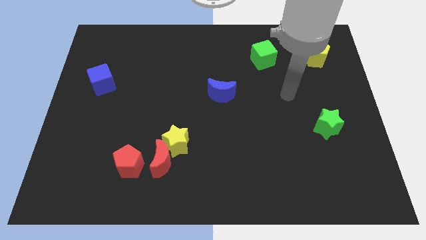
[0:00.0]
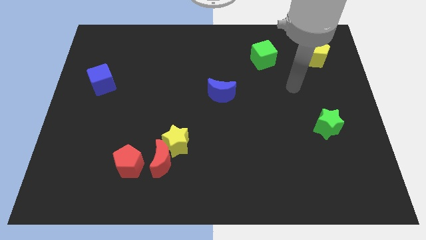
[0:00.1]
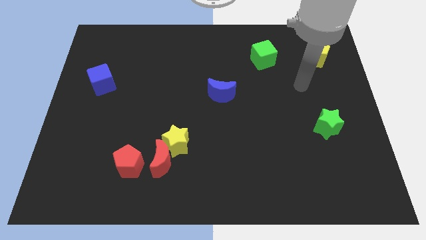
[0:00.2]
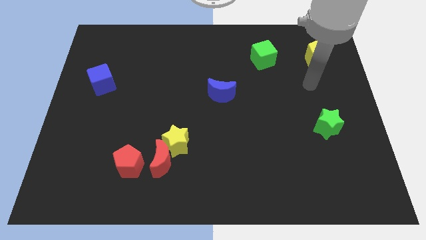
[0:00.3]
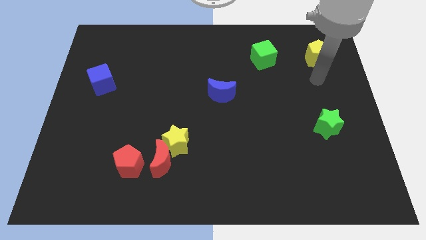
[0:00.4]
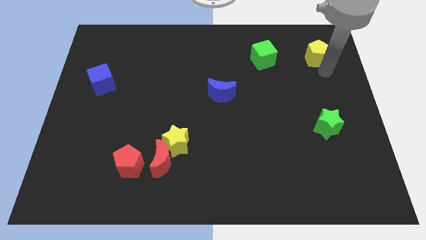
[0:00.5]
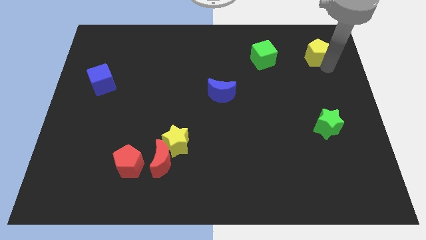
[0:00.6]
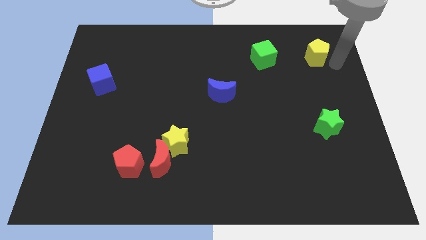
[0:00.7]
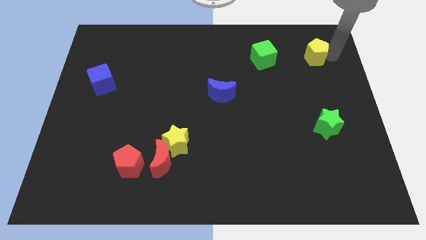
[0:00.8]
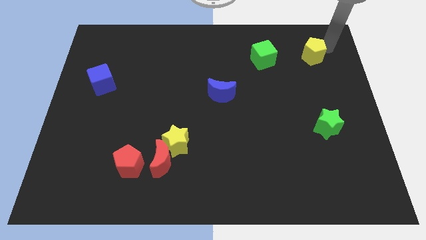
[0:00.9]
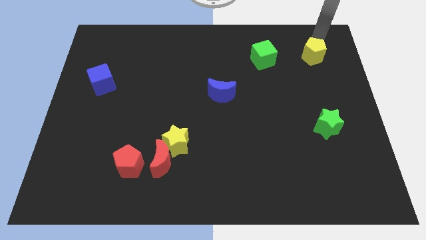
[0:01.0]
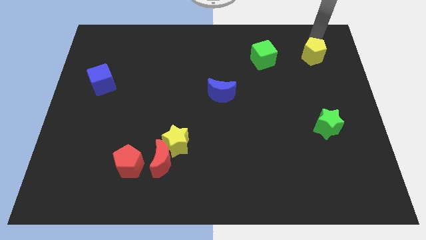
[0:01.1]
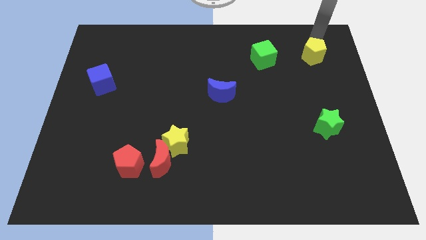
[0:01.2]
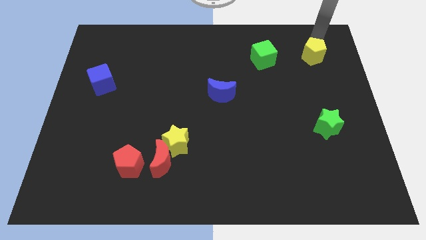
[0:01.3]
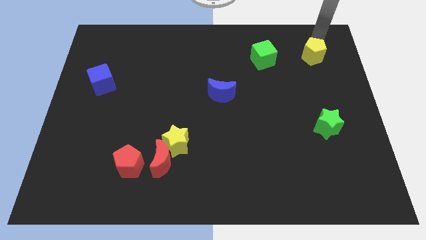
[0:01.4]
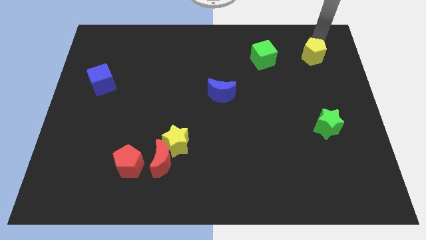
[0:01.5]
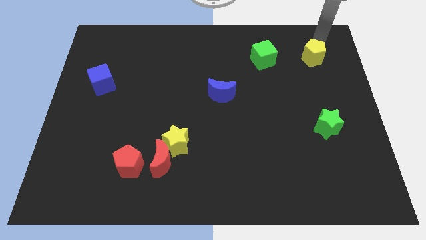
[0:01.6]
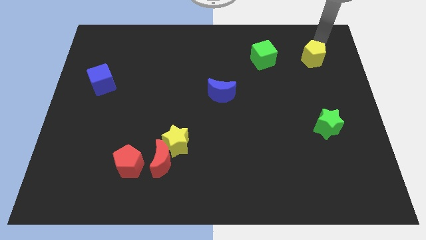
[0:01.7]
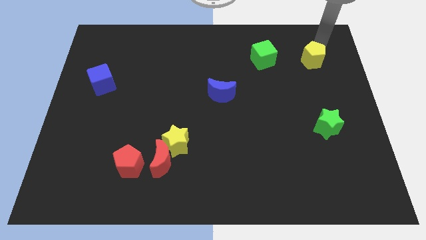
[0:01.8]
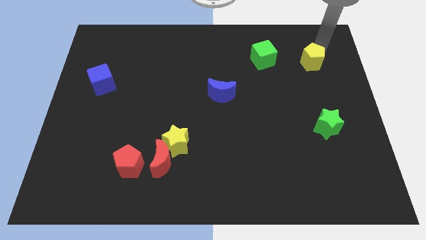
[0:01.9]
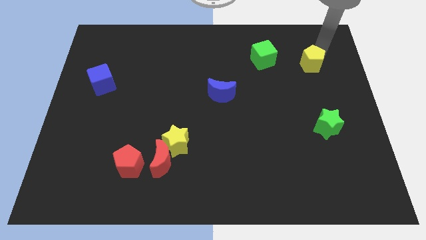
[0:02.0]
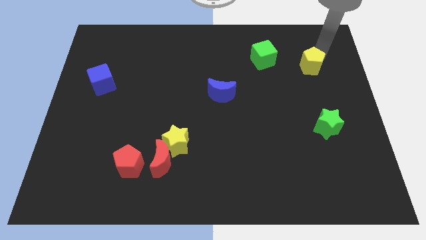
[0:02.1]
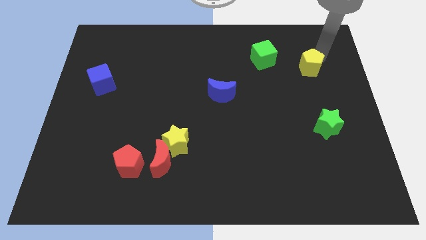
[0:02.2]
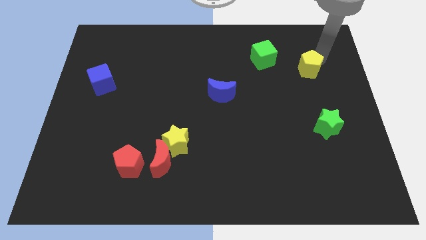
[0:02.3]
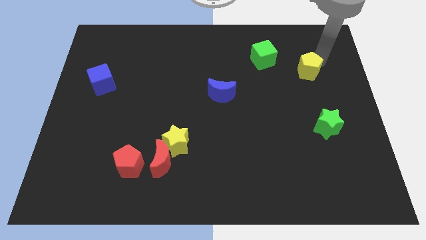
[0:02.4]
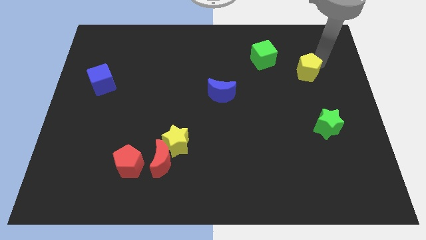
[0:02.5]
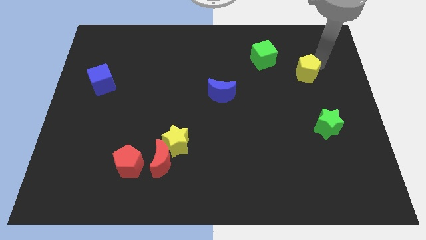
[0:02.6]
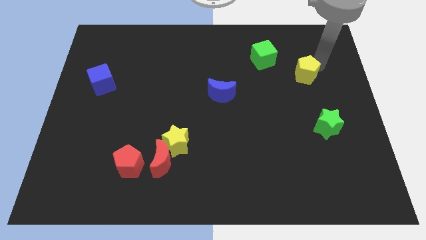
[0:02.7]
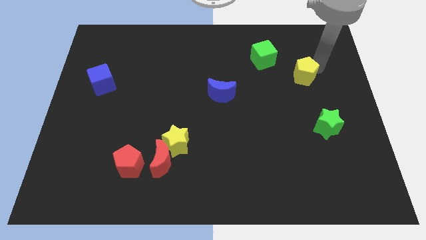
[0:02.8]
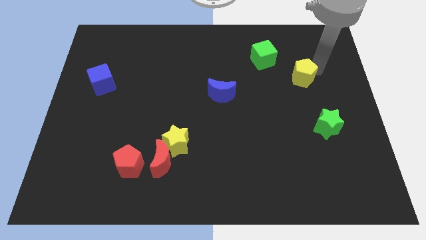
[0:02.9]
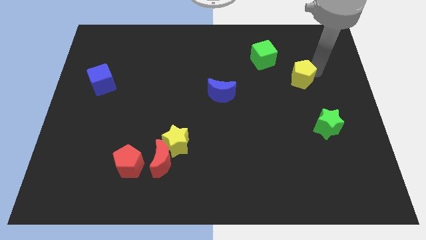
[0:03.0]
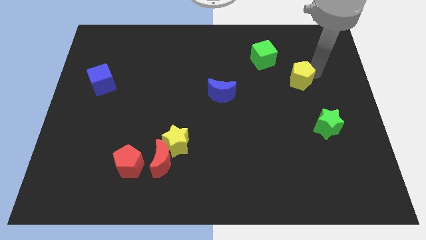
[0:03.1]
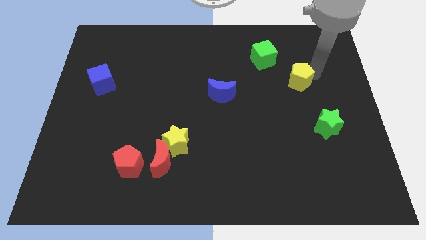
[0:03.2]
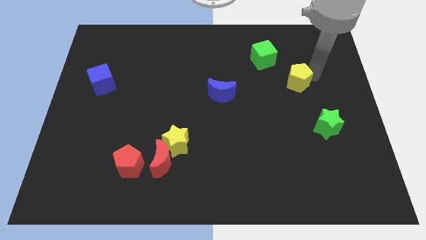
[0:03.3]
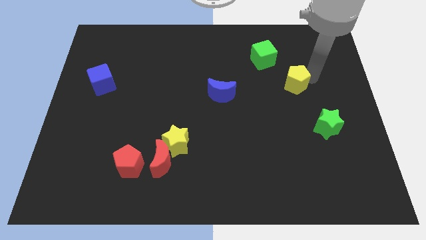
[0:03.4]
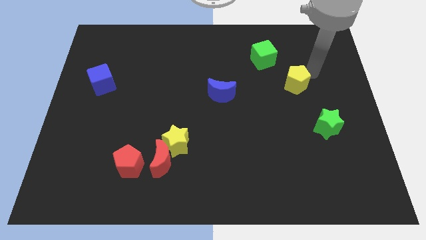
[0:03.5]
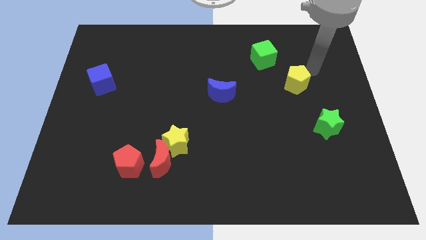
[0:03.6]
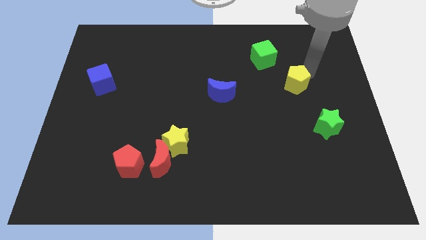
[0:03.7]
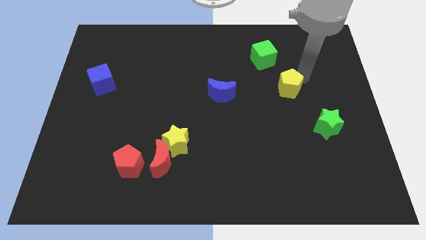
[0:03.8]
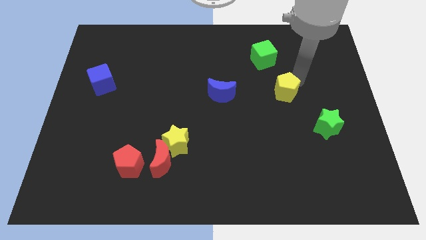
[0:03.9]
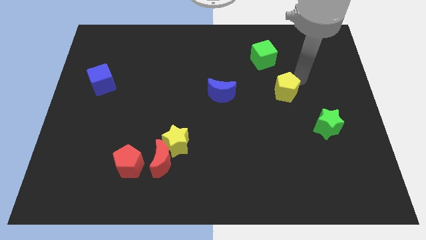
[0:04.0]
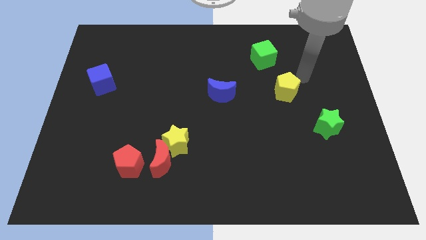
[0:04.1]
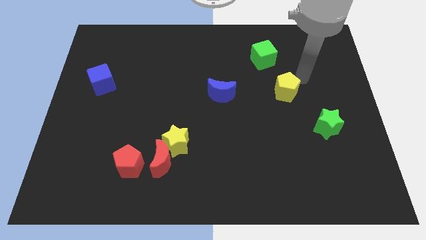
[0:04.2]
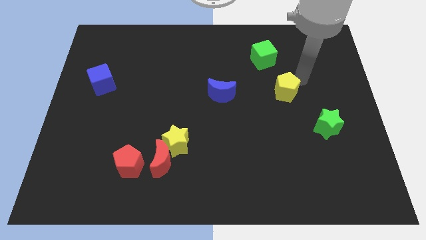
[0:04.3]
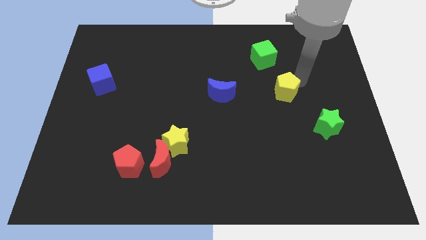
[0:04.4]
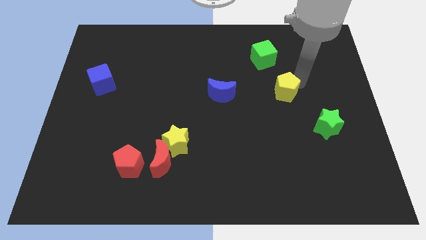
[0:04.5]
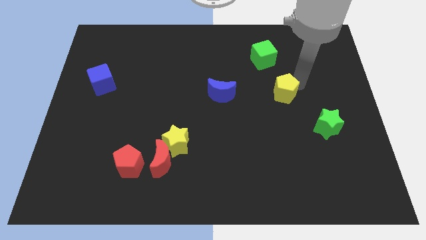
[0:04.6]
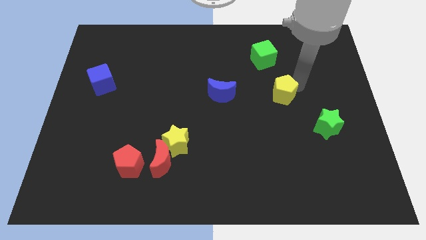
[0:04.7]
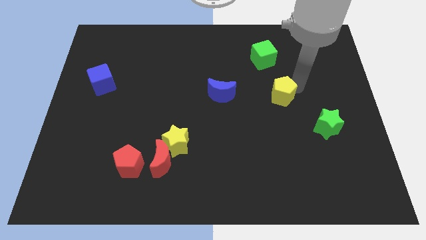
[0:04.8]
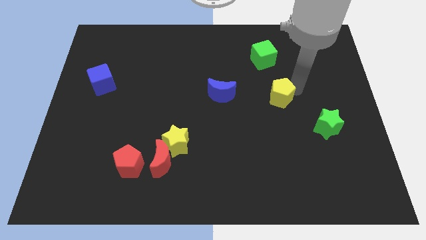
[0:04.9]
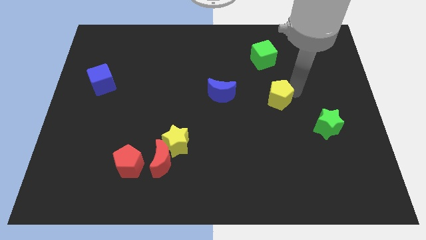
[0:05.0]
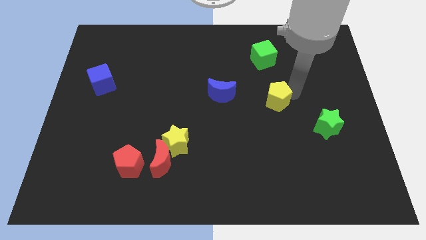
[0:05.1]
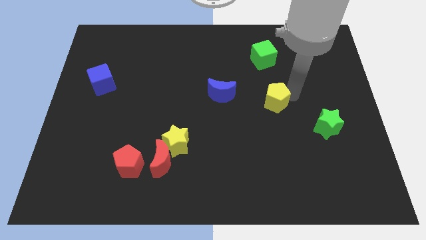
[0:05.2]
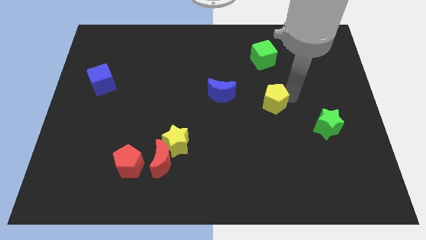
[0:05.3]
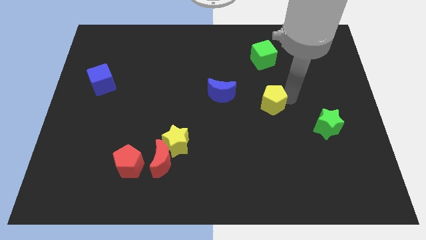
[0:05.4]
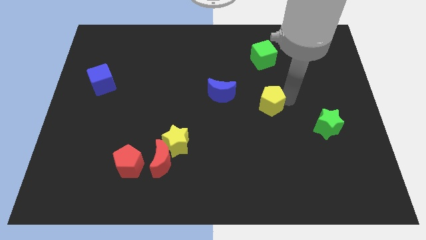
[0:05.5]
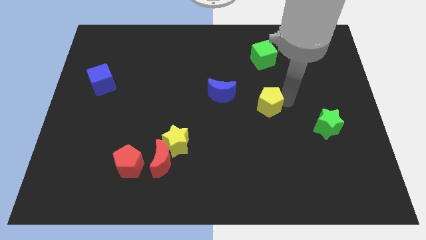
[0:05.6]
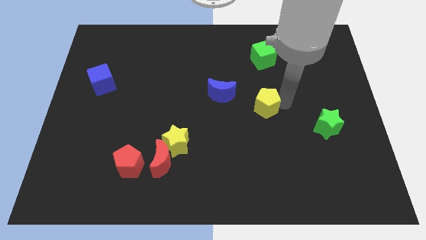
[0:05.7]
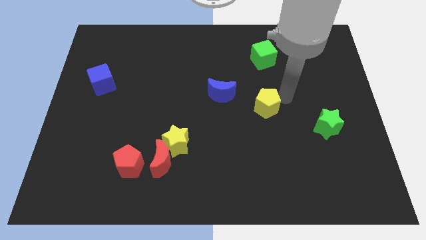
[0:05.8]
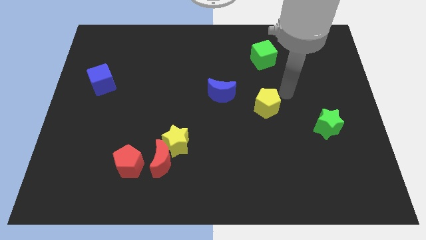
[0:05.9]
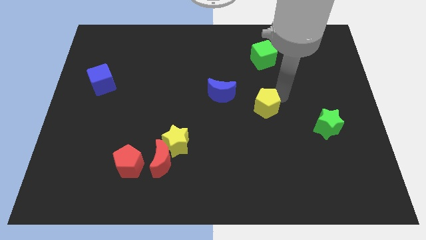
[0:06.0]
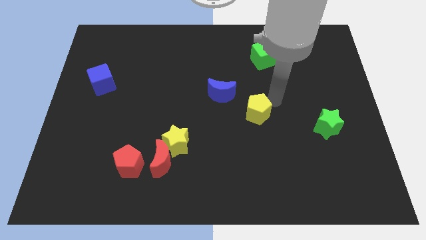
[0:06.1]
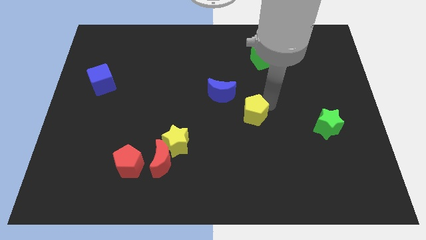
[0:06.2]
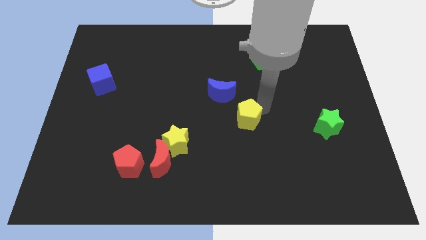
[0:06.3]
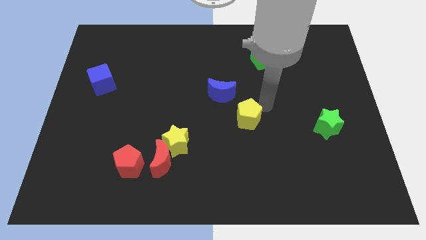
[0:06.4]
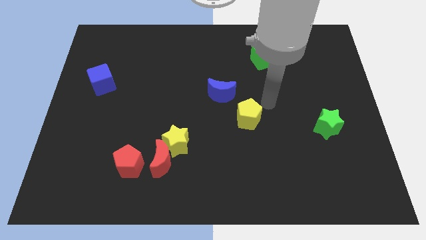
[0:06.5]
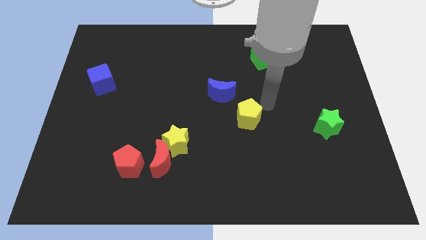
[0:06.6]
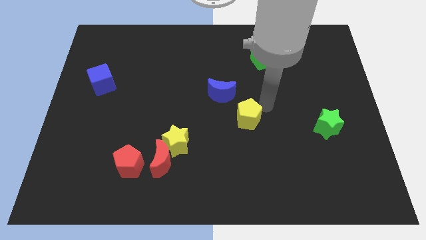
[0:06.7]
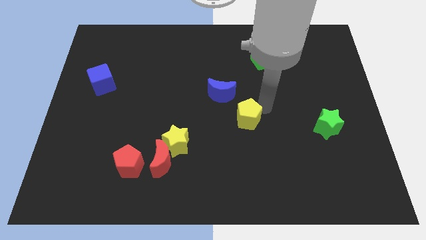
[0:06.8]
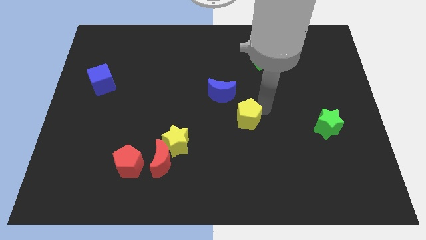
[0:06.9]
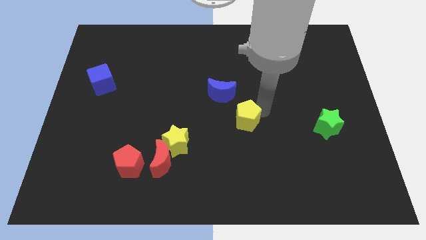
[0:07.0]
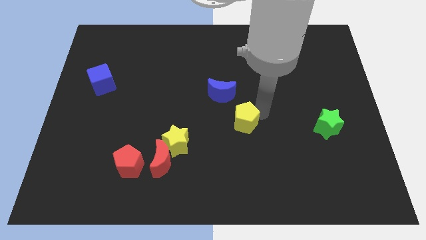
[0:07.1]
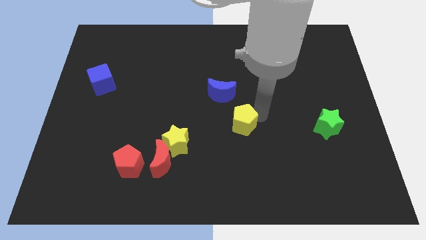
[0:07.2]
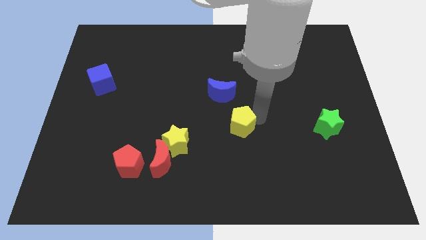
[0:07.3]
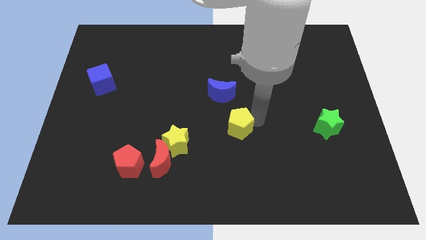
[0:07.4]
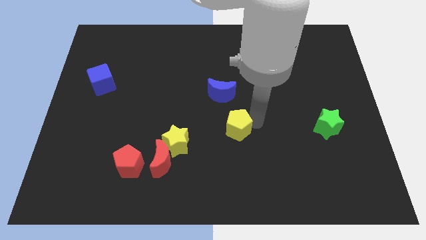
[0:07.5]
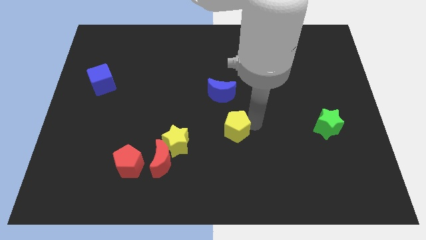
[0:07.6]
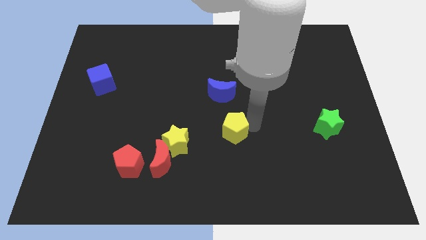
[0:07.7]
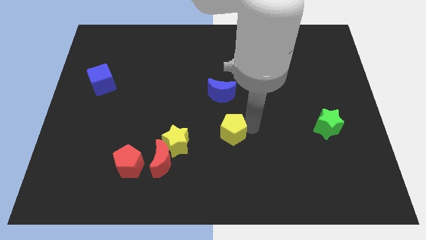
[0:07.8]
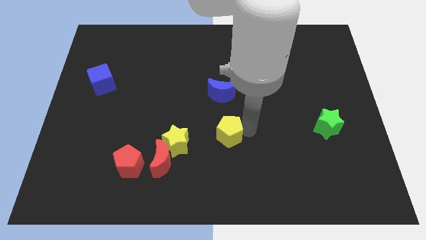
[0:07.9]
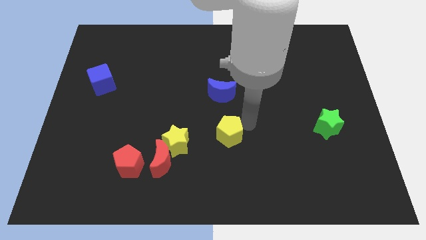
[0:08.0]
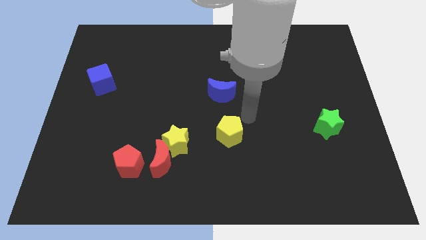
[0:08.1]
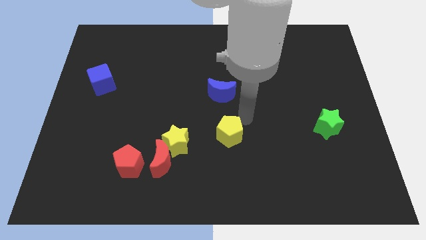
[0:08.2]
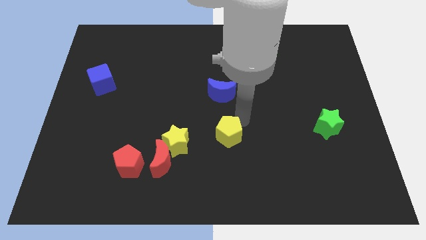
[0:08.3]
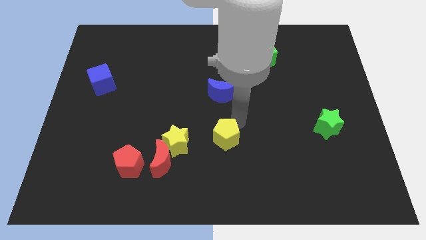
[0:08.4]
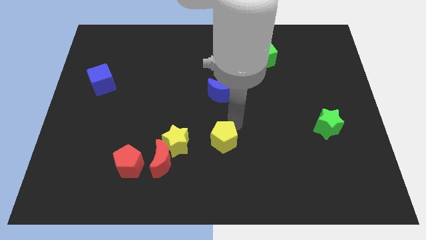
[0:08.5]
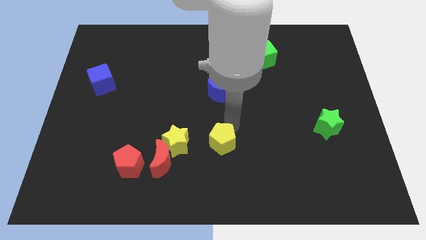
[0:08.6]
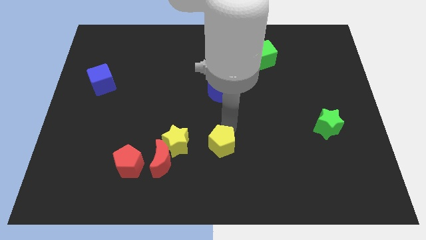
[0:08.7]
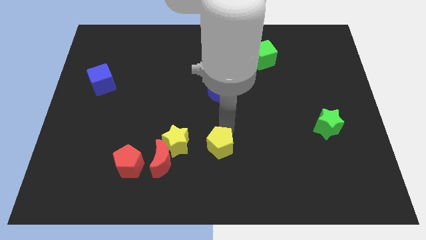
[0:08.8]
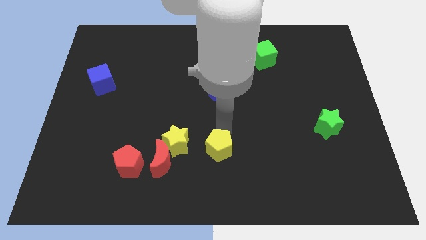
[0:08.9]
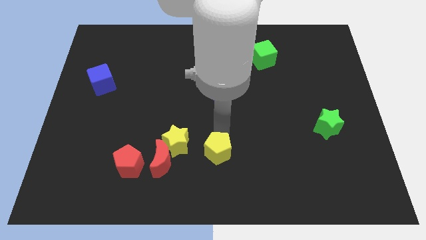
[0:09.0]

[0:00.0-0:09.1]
move the yellow pentagon to the bottom right side of the yellow star
